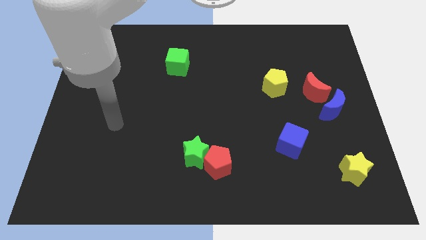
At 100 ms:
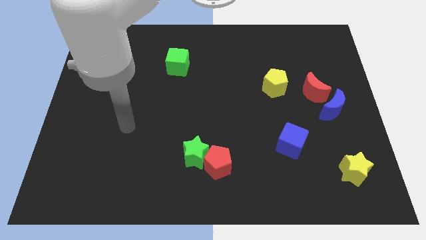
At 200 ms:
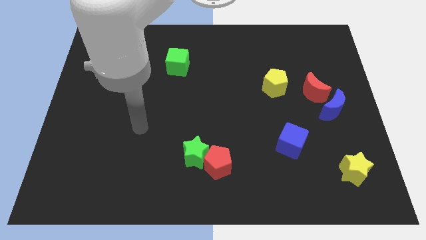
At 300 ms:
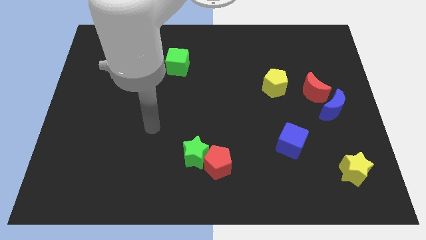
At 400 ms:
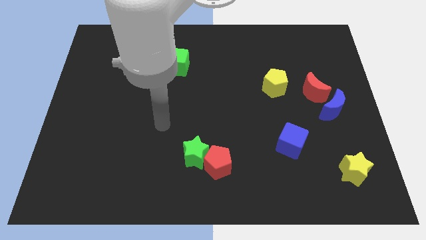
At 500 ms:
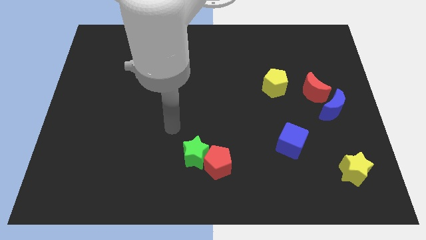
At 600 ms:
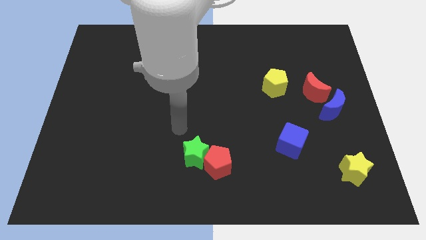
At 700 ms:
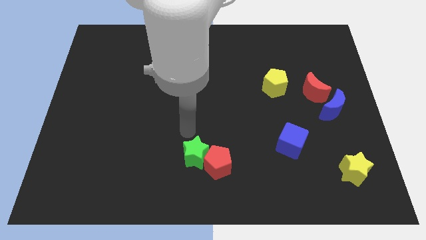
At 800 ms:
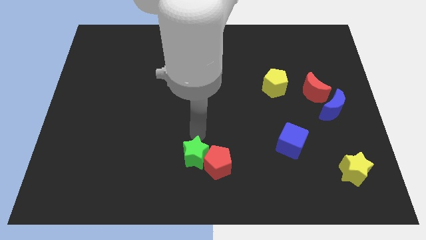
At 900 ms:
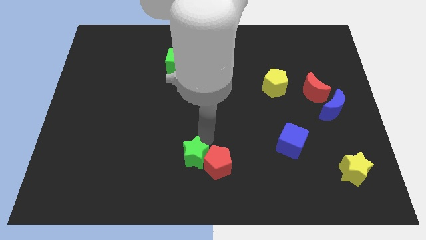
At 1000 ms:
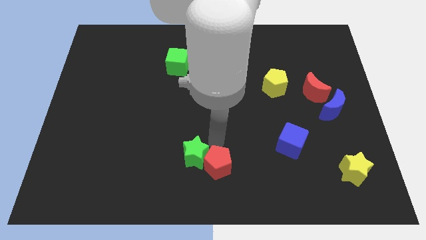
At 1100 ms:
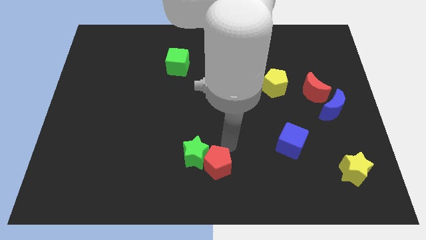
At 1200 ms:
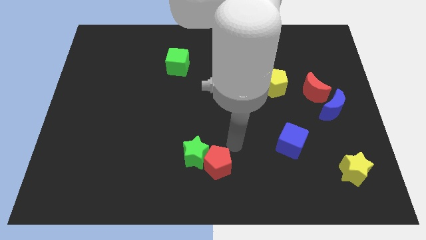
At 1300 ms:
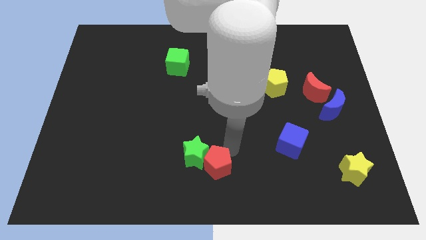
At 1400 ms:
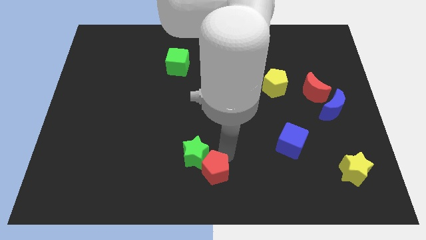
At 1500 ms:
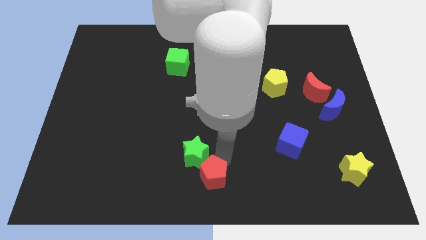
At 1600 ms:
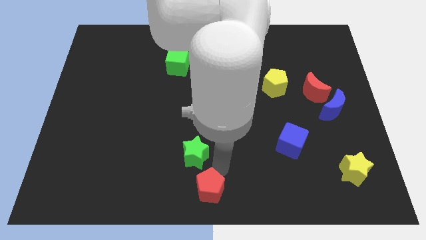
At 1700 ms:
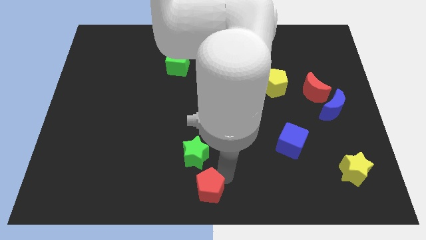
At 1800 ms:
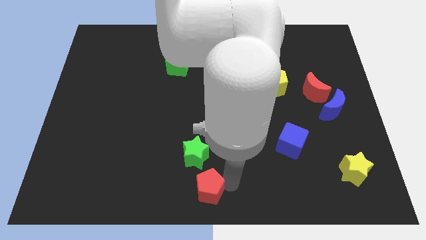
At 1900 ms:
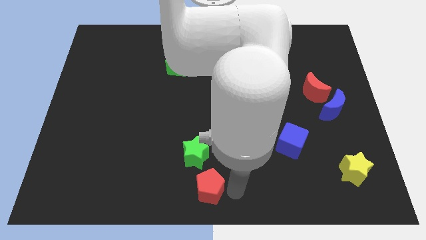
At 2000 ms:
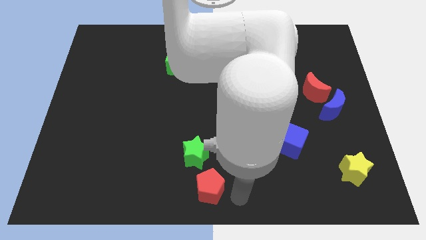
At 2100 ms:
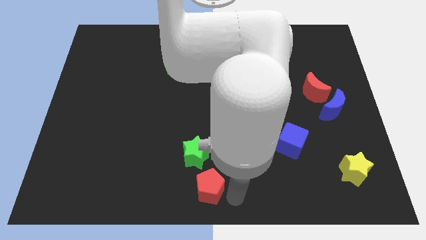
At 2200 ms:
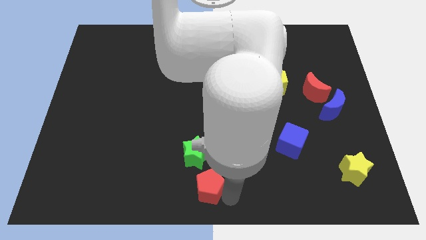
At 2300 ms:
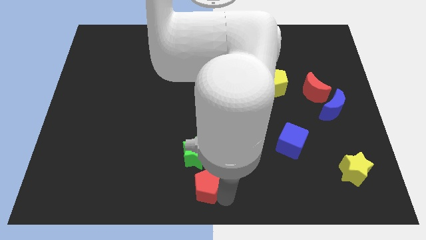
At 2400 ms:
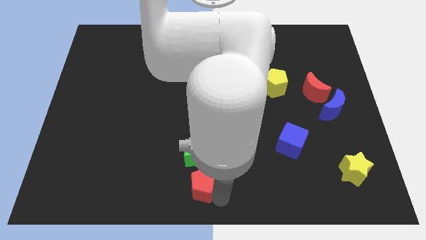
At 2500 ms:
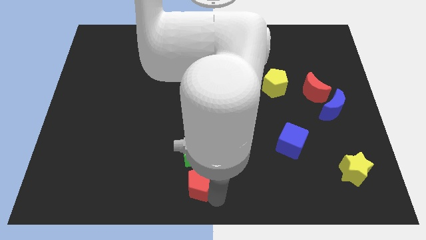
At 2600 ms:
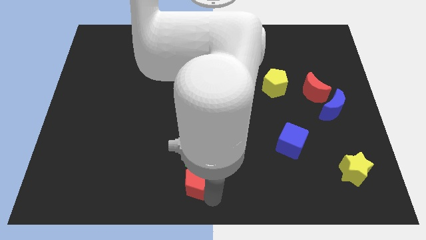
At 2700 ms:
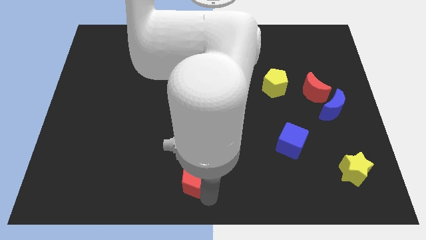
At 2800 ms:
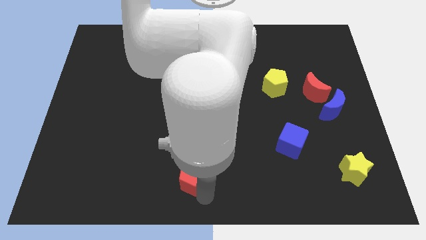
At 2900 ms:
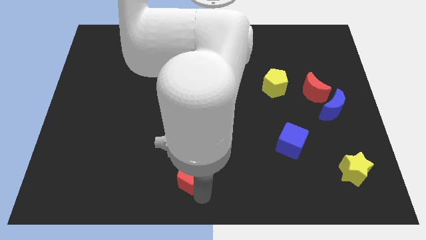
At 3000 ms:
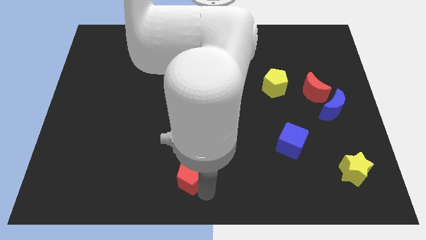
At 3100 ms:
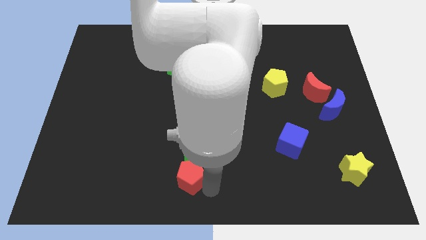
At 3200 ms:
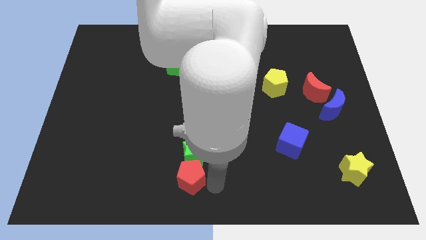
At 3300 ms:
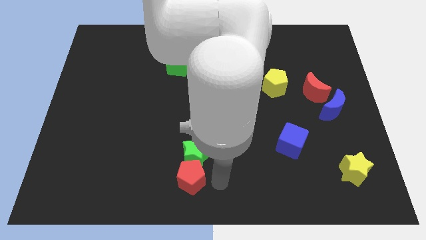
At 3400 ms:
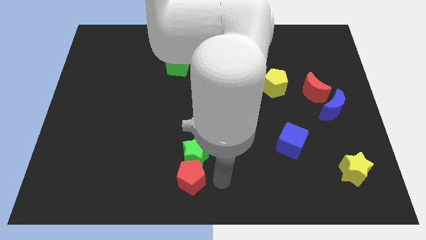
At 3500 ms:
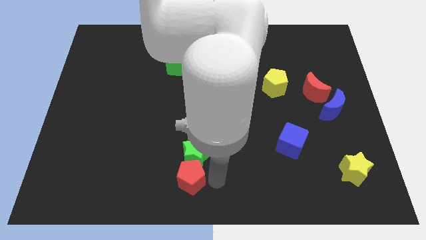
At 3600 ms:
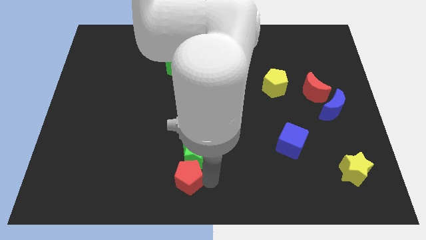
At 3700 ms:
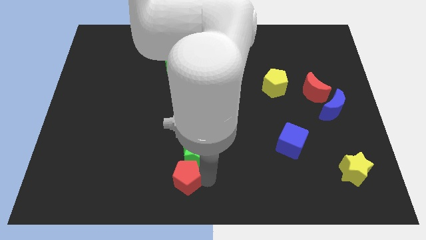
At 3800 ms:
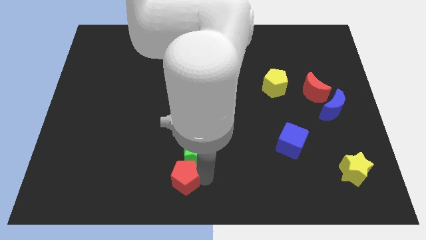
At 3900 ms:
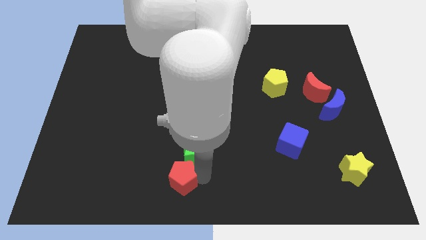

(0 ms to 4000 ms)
move the red pentagon a little to the left

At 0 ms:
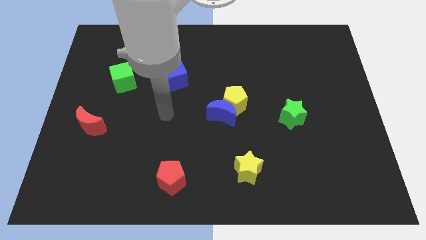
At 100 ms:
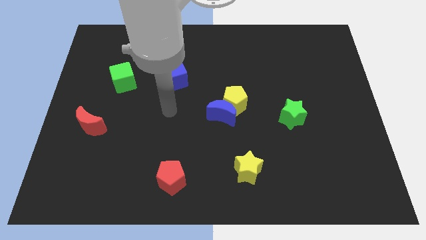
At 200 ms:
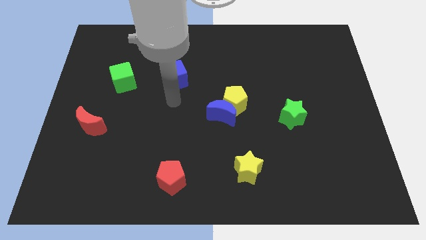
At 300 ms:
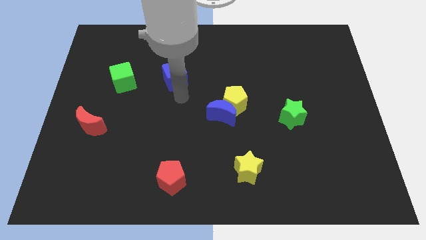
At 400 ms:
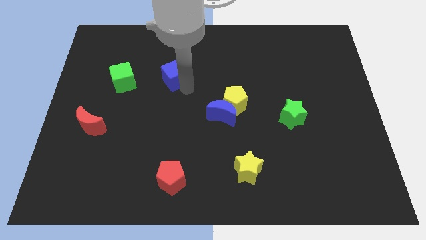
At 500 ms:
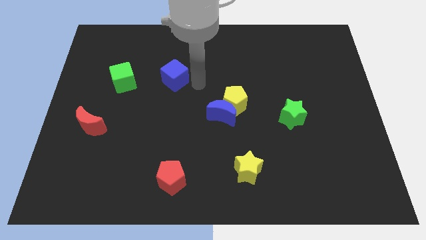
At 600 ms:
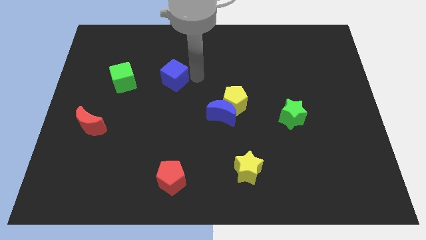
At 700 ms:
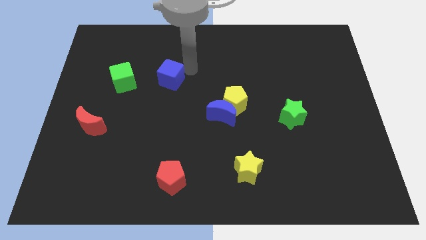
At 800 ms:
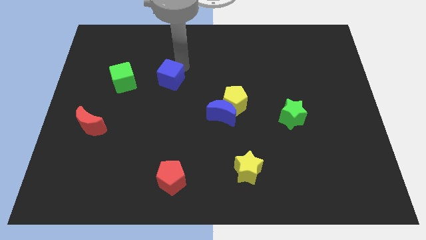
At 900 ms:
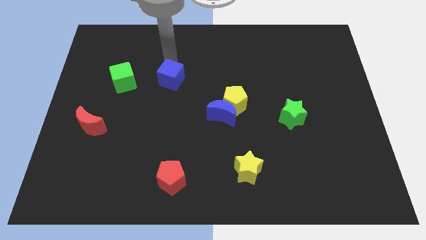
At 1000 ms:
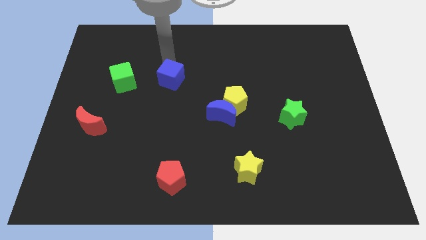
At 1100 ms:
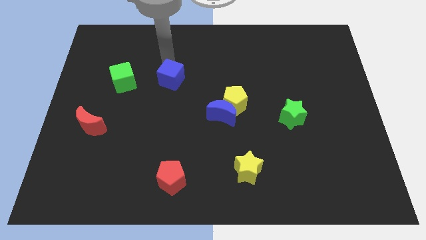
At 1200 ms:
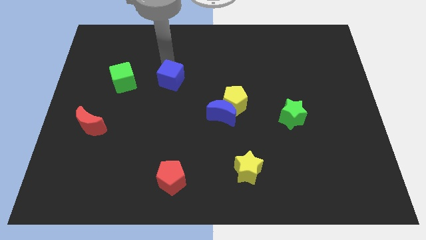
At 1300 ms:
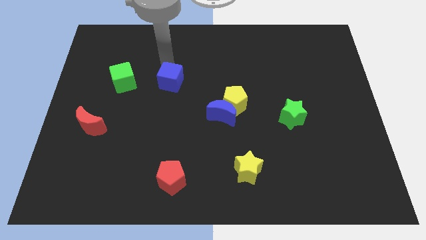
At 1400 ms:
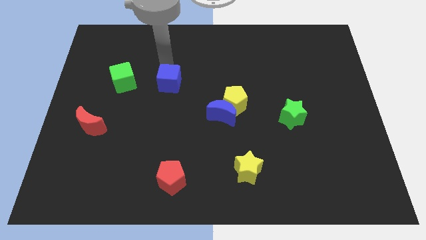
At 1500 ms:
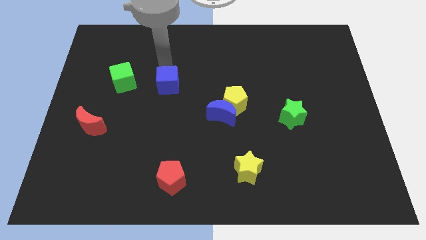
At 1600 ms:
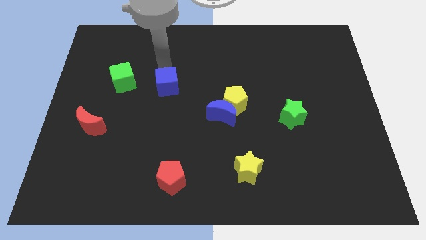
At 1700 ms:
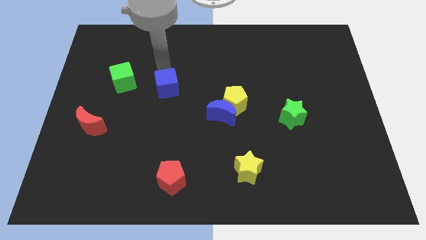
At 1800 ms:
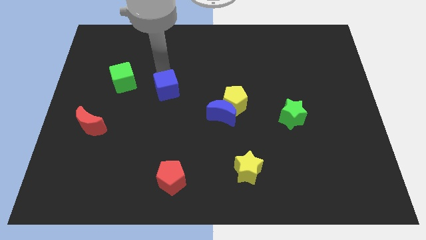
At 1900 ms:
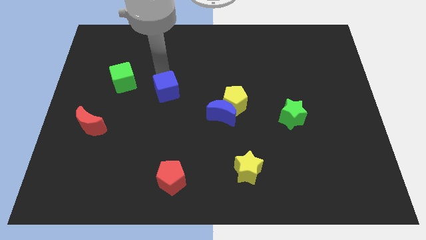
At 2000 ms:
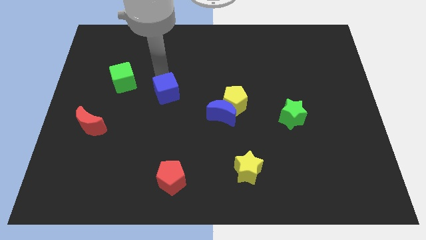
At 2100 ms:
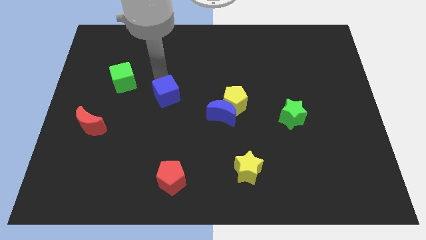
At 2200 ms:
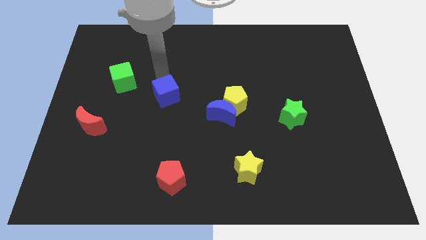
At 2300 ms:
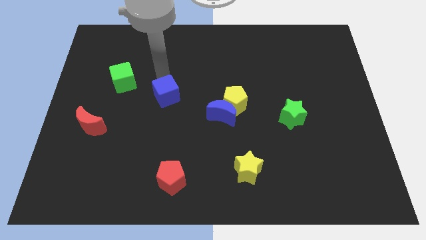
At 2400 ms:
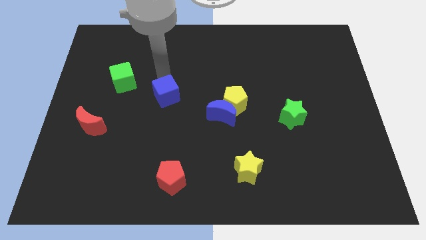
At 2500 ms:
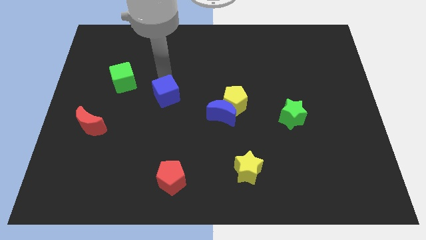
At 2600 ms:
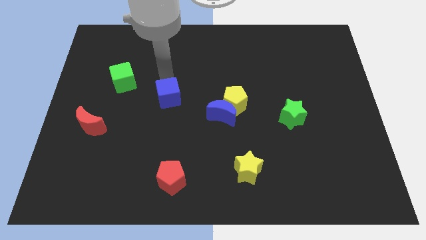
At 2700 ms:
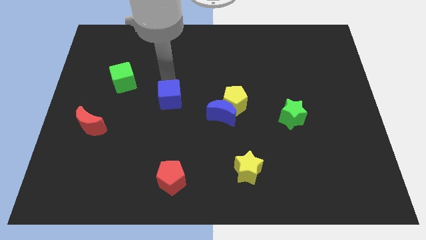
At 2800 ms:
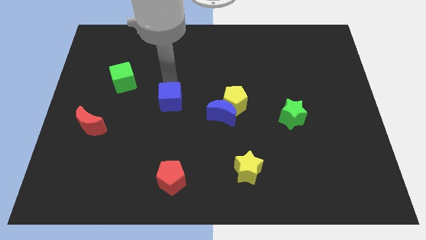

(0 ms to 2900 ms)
push the blue cube a little downwards

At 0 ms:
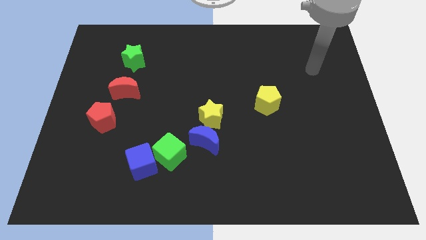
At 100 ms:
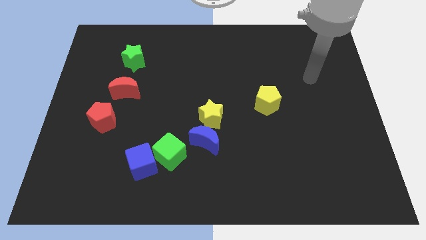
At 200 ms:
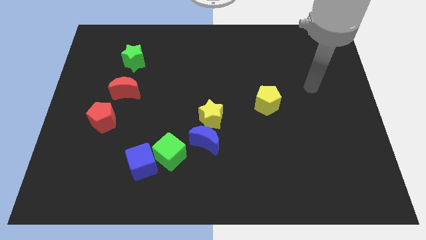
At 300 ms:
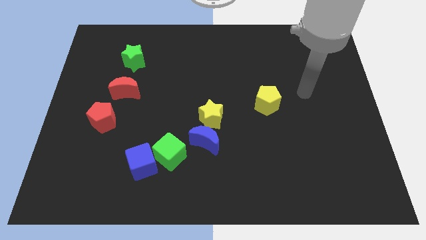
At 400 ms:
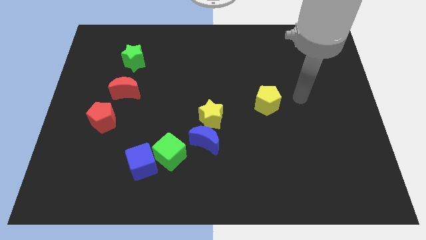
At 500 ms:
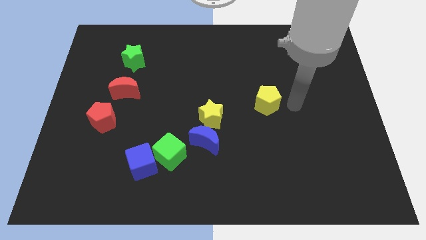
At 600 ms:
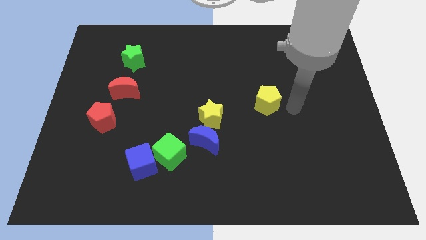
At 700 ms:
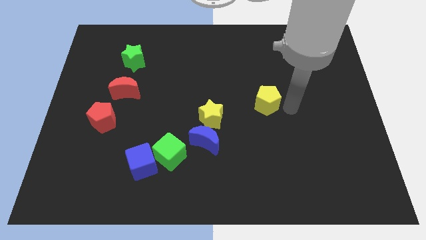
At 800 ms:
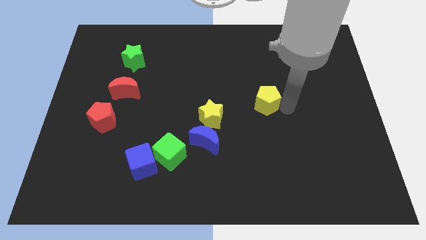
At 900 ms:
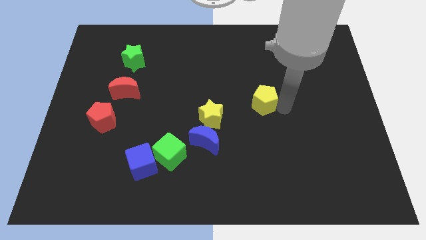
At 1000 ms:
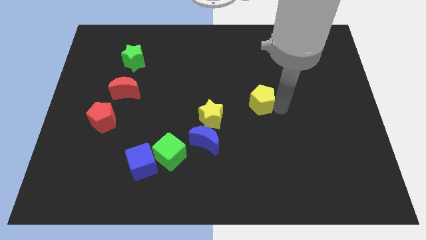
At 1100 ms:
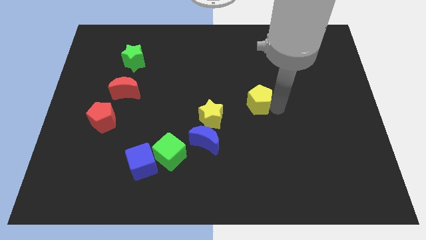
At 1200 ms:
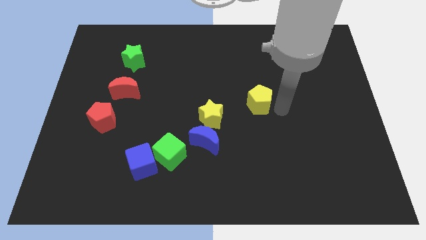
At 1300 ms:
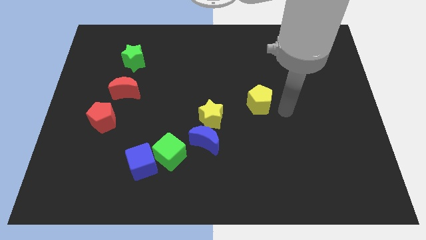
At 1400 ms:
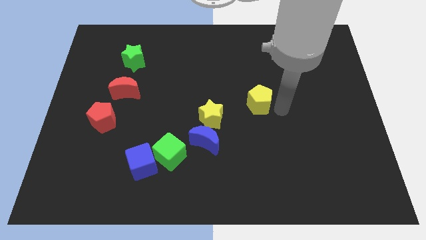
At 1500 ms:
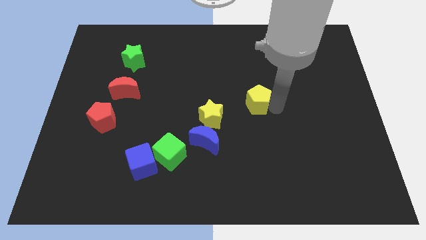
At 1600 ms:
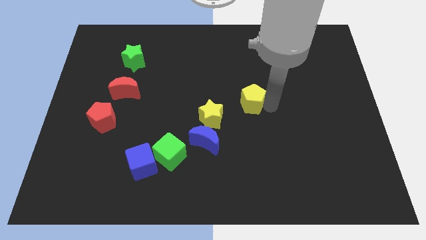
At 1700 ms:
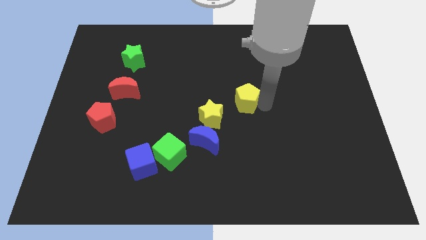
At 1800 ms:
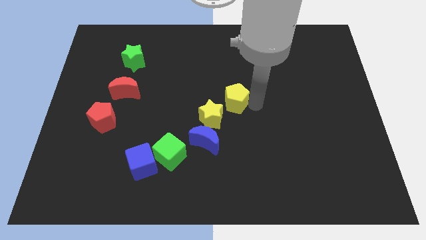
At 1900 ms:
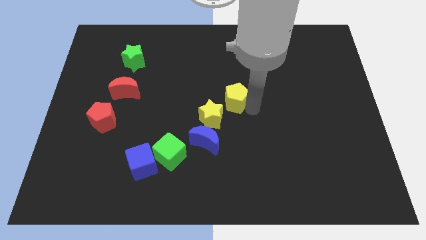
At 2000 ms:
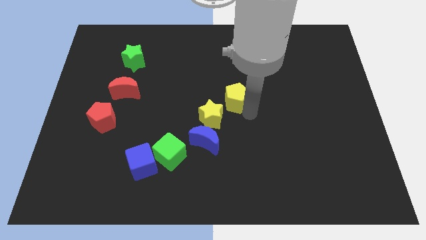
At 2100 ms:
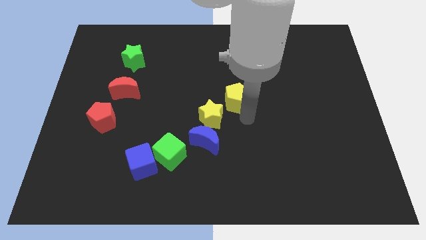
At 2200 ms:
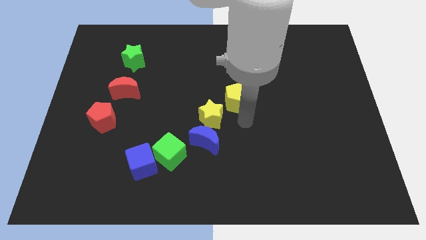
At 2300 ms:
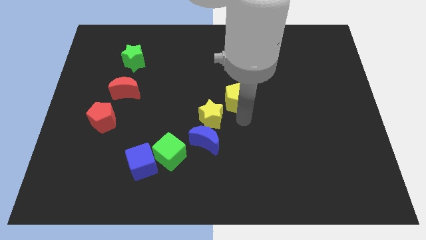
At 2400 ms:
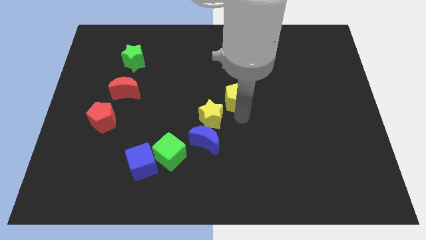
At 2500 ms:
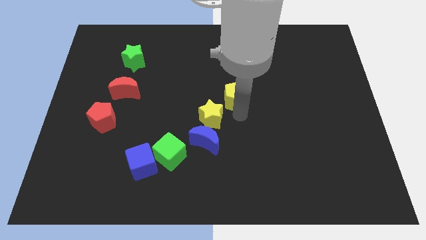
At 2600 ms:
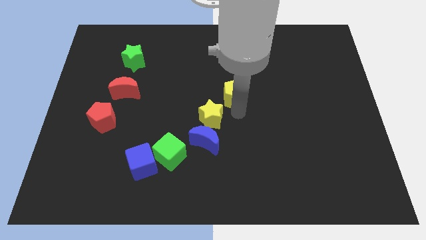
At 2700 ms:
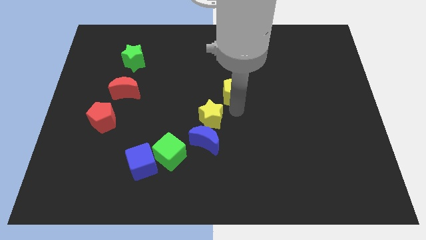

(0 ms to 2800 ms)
slide the yellow pentagon a little diagonally up and left
